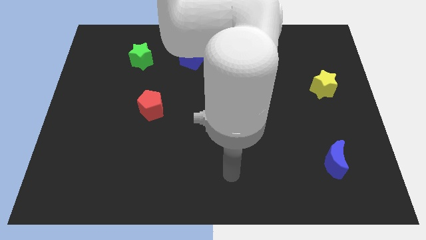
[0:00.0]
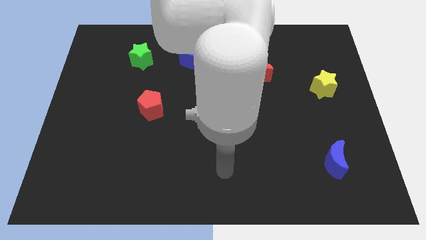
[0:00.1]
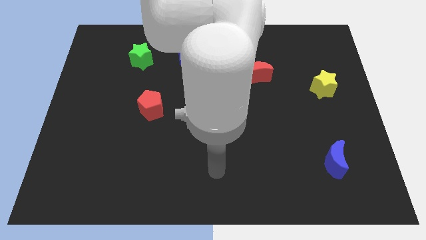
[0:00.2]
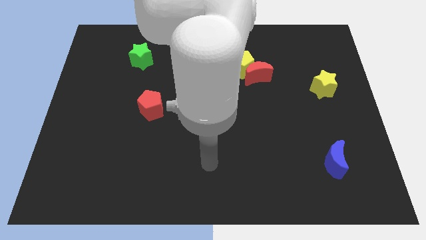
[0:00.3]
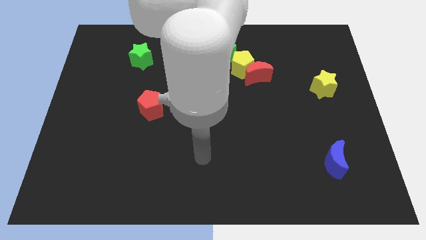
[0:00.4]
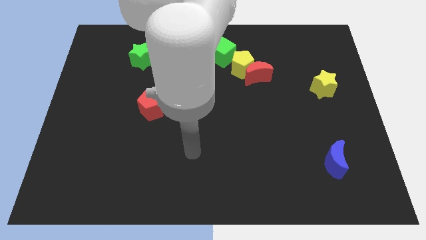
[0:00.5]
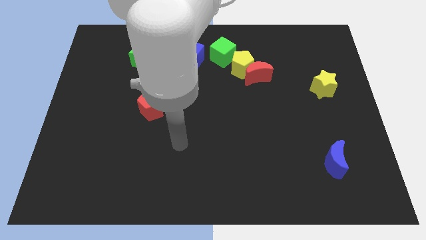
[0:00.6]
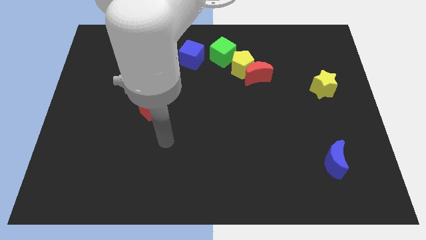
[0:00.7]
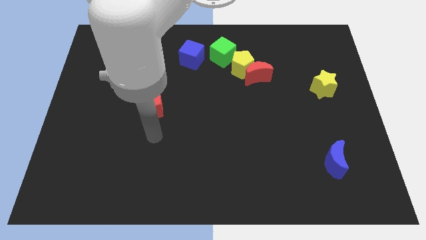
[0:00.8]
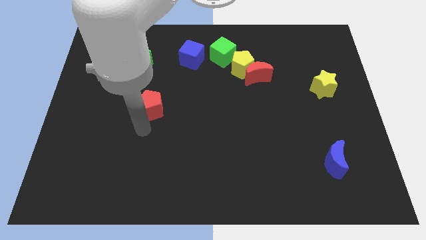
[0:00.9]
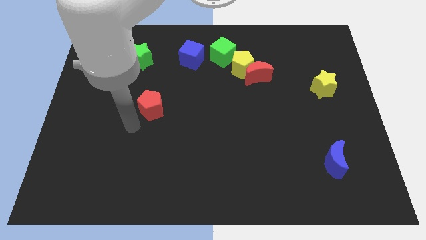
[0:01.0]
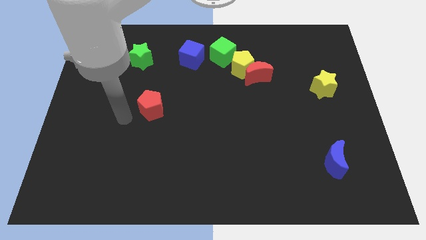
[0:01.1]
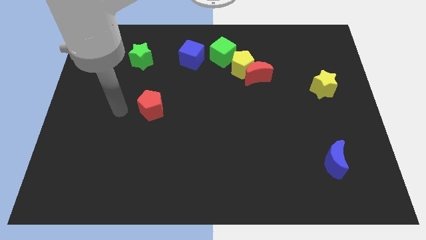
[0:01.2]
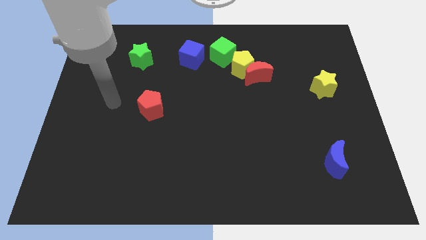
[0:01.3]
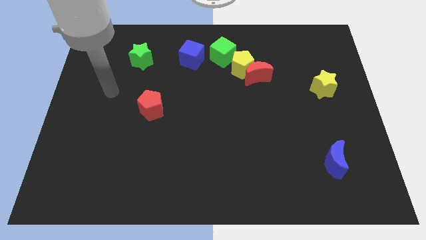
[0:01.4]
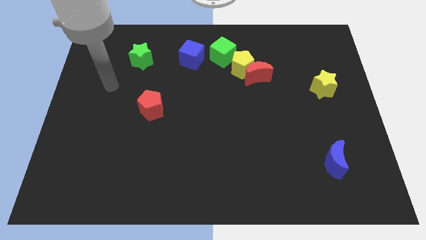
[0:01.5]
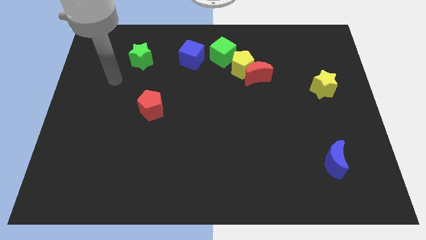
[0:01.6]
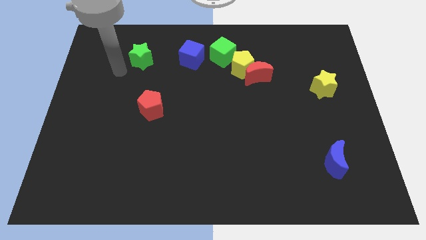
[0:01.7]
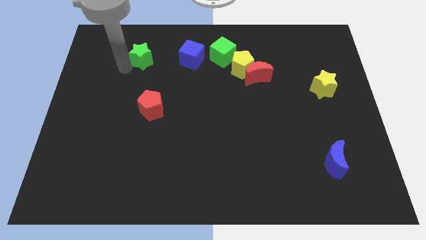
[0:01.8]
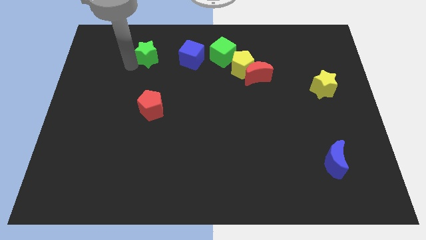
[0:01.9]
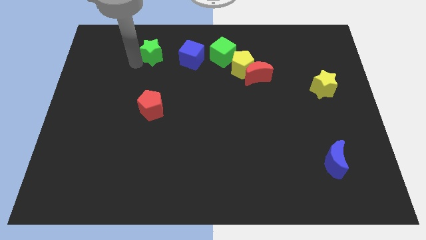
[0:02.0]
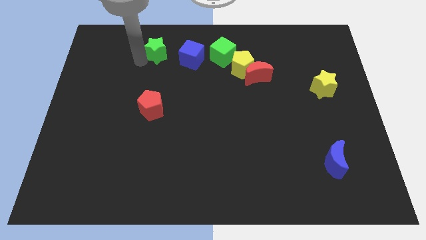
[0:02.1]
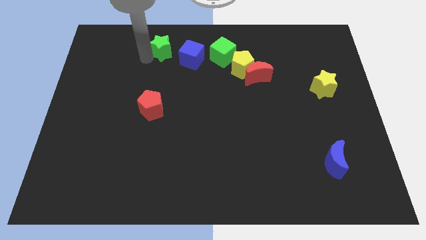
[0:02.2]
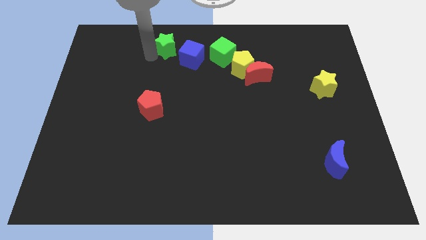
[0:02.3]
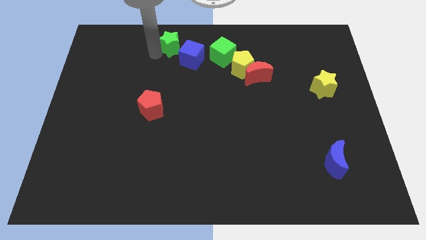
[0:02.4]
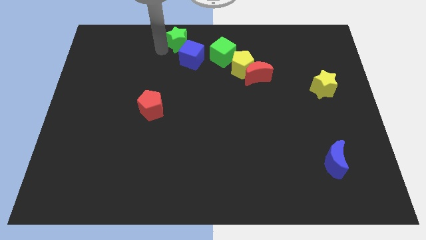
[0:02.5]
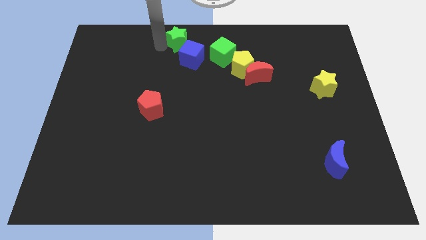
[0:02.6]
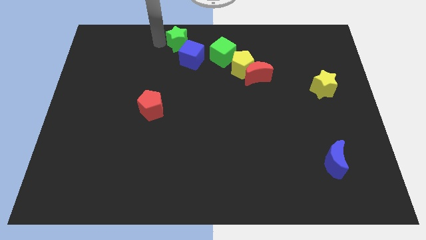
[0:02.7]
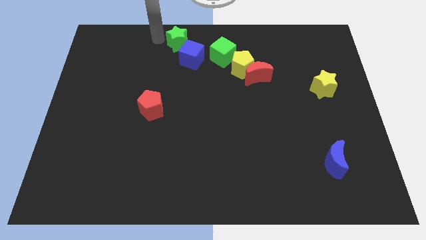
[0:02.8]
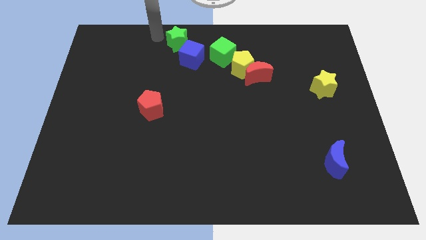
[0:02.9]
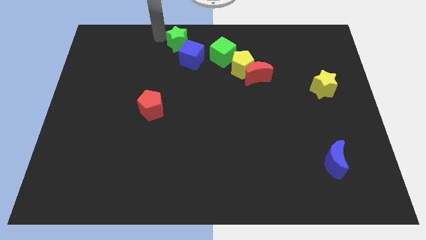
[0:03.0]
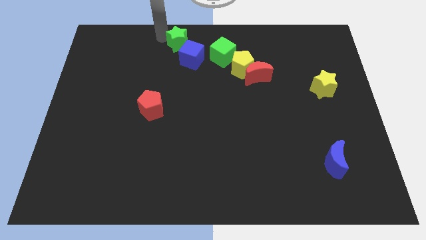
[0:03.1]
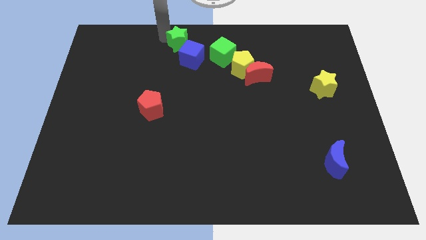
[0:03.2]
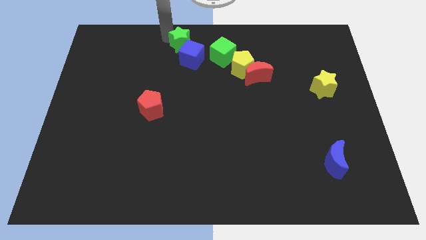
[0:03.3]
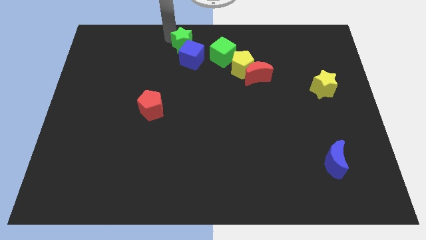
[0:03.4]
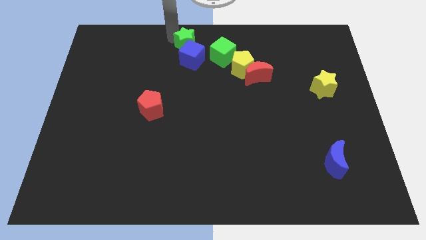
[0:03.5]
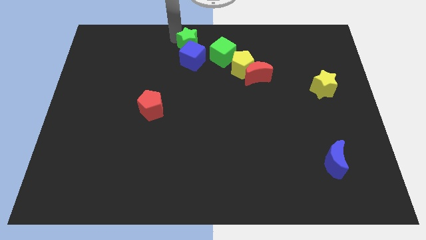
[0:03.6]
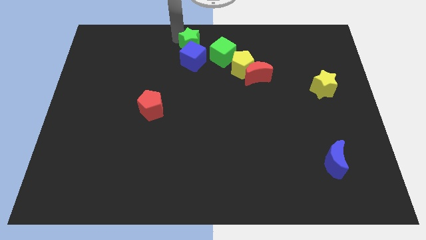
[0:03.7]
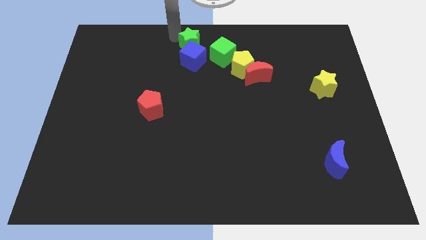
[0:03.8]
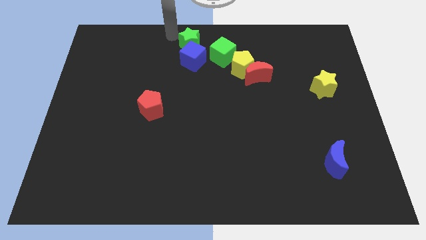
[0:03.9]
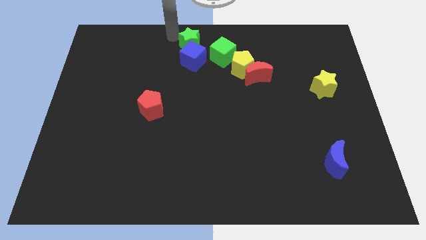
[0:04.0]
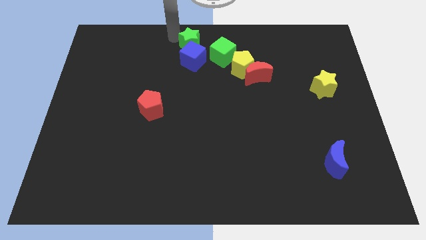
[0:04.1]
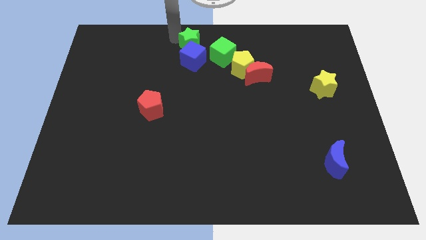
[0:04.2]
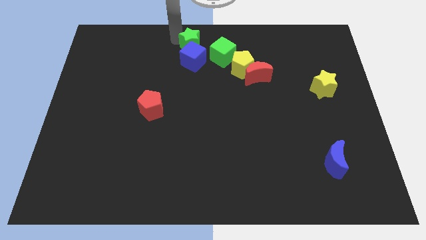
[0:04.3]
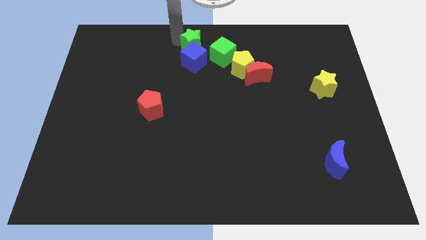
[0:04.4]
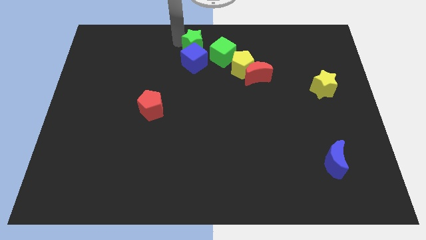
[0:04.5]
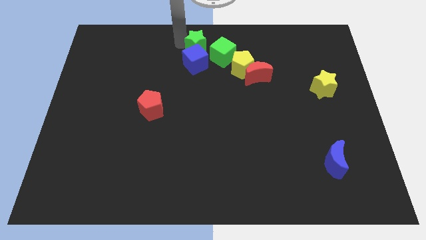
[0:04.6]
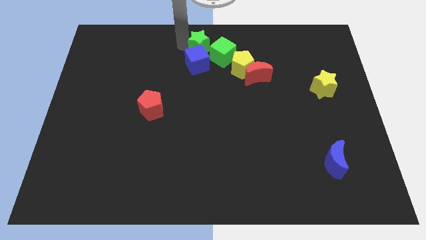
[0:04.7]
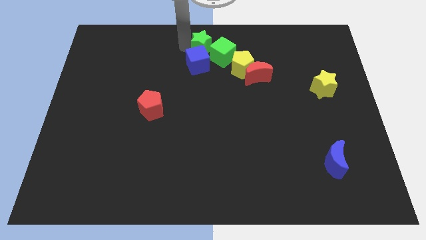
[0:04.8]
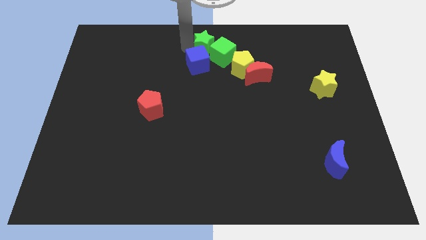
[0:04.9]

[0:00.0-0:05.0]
move the green star next to the green cube

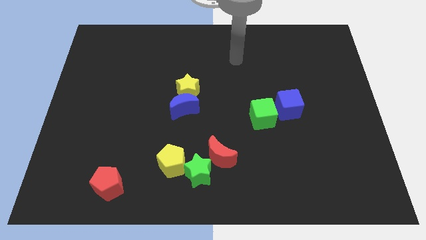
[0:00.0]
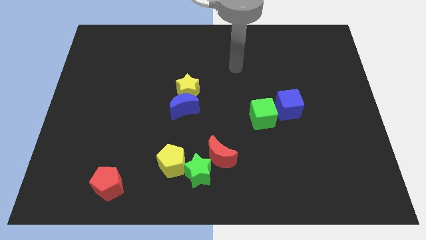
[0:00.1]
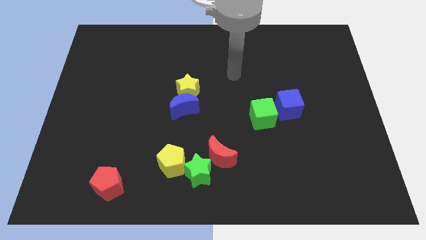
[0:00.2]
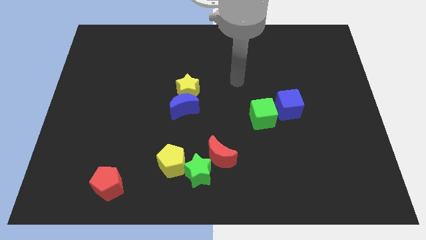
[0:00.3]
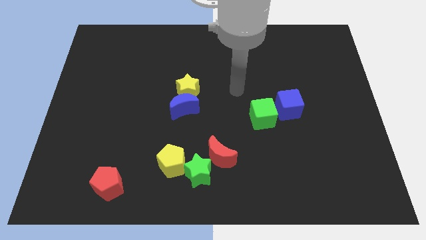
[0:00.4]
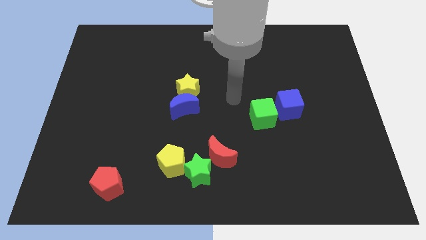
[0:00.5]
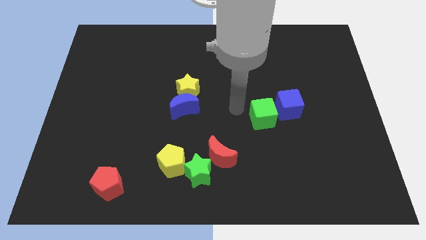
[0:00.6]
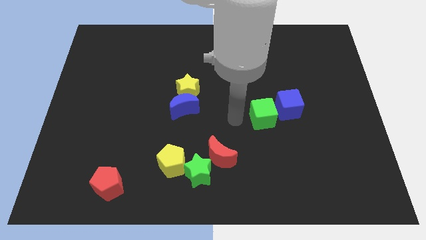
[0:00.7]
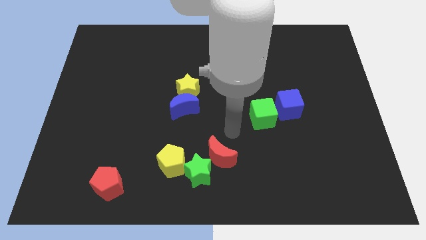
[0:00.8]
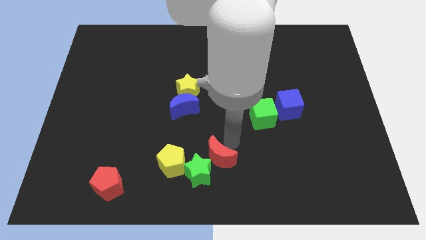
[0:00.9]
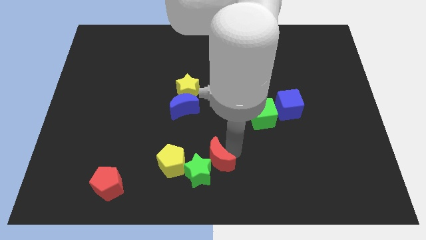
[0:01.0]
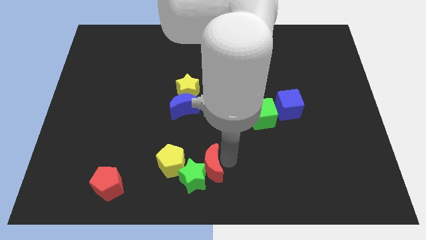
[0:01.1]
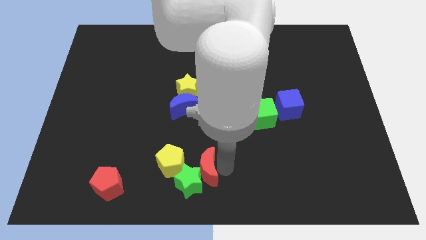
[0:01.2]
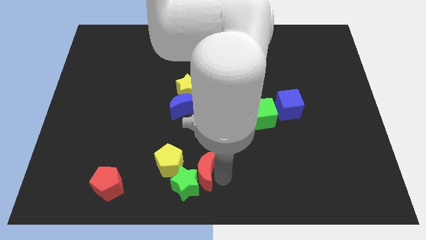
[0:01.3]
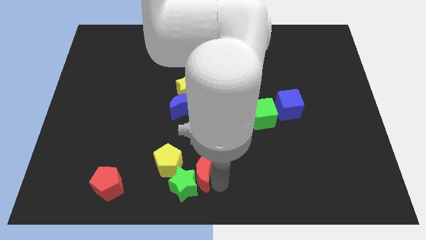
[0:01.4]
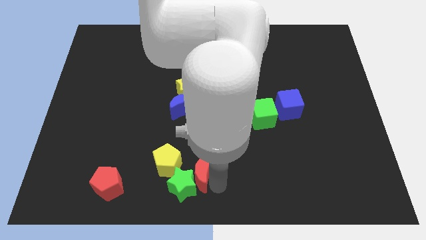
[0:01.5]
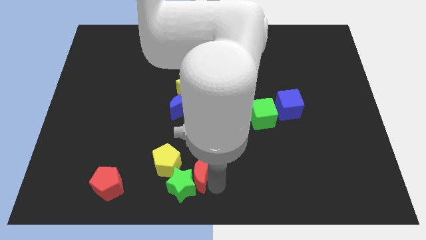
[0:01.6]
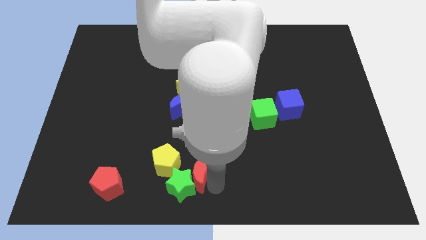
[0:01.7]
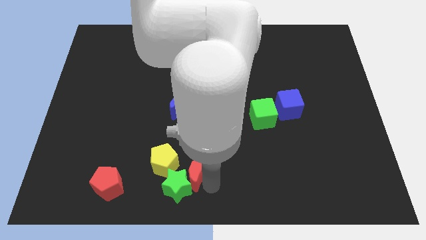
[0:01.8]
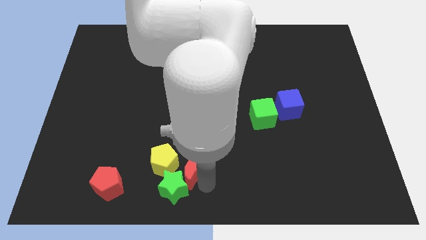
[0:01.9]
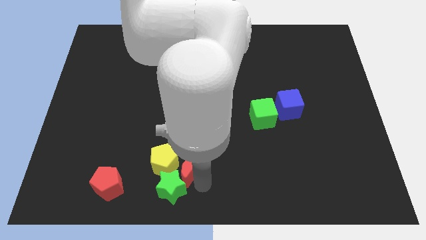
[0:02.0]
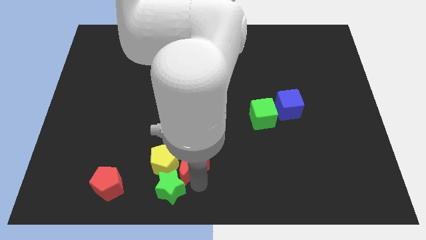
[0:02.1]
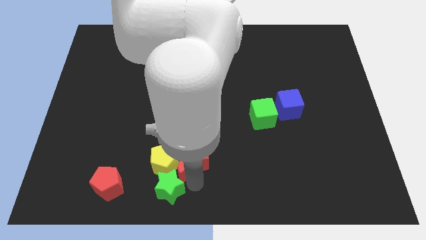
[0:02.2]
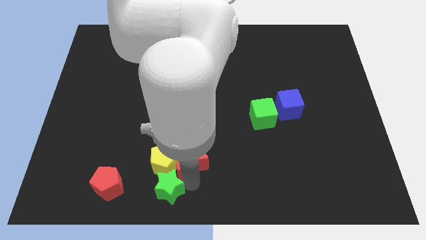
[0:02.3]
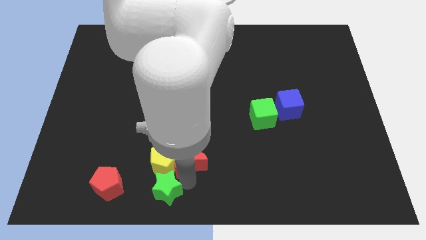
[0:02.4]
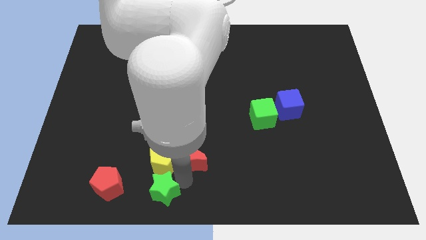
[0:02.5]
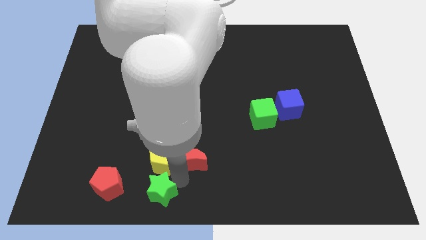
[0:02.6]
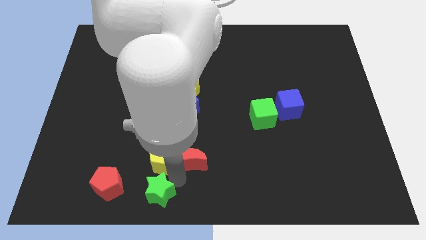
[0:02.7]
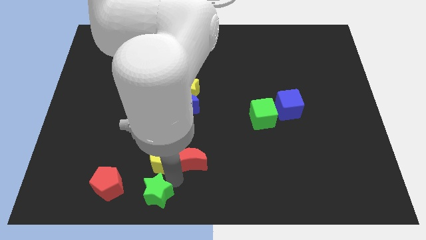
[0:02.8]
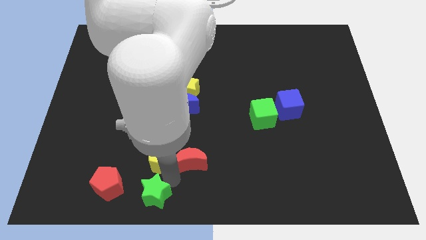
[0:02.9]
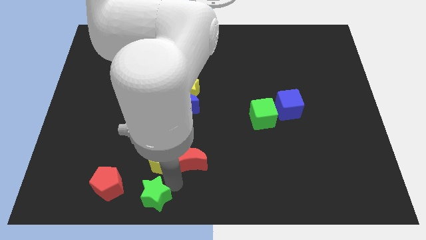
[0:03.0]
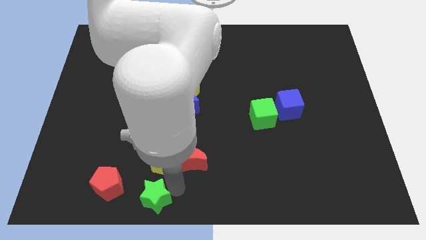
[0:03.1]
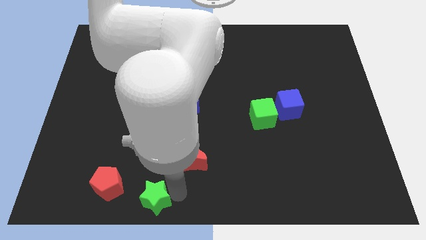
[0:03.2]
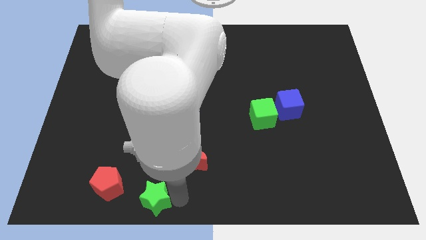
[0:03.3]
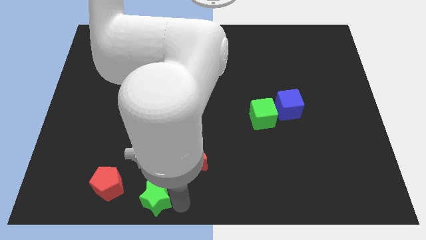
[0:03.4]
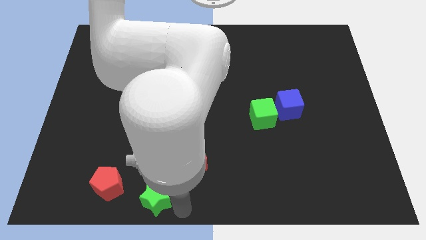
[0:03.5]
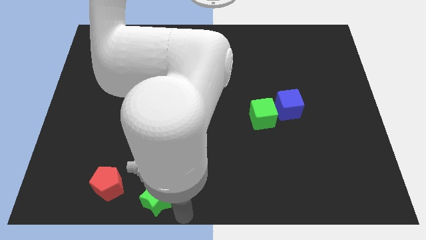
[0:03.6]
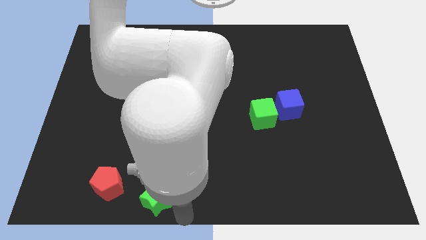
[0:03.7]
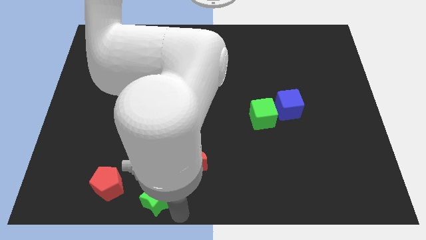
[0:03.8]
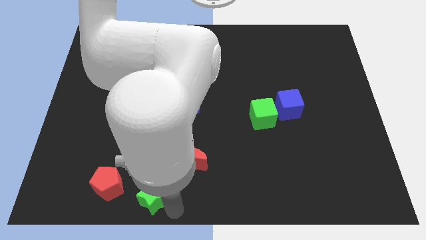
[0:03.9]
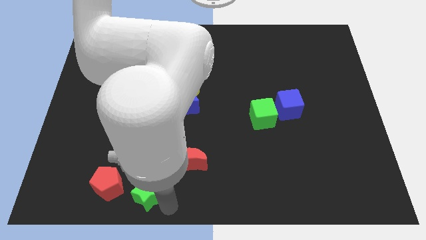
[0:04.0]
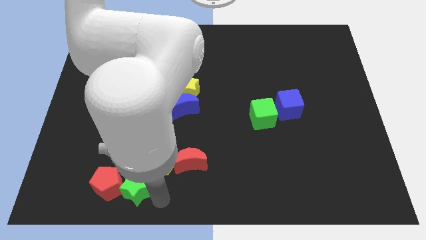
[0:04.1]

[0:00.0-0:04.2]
push the green star next to the red pentagon
